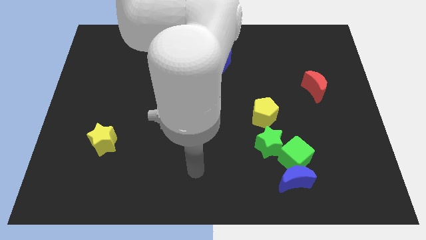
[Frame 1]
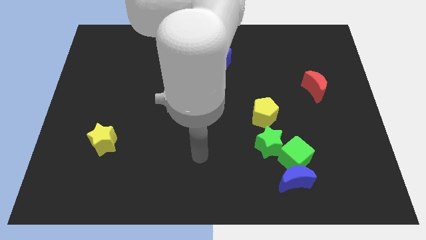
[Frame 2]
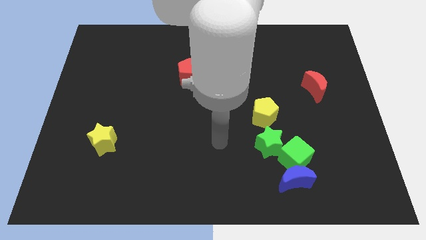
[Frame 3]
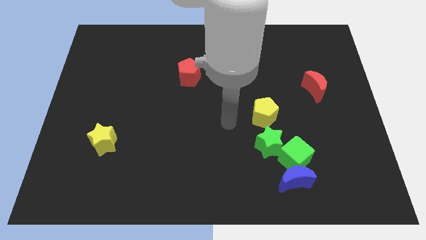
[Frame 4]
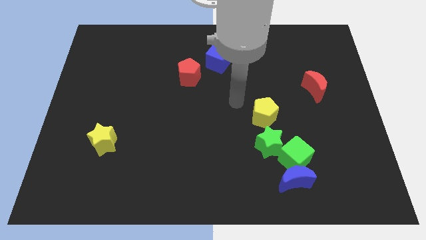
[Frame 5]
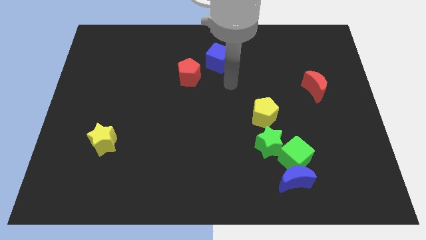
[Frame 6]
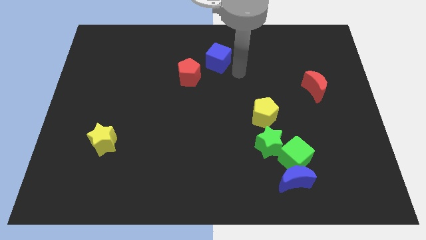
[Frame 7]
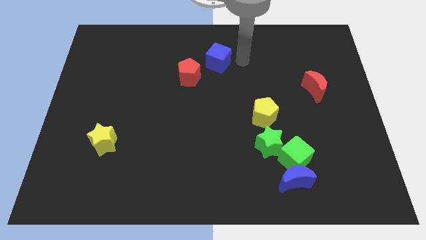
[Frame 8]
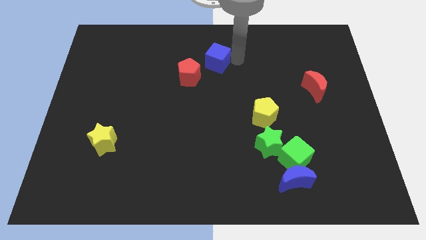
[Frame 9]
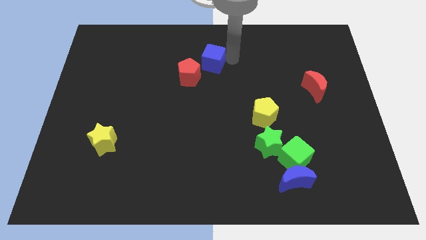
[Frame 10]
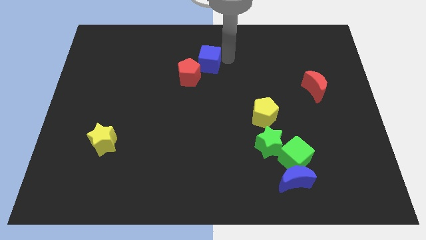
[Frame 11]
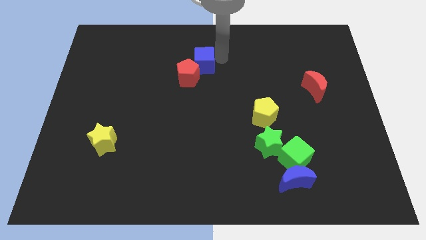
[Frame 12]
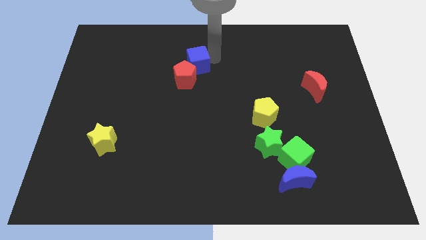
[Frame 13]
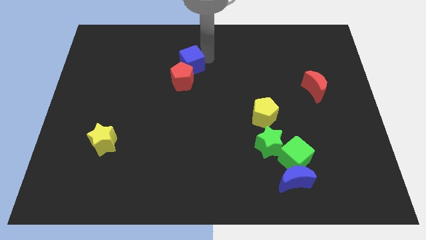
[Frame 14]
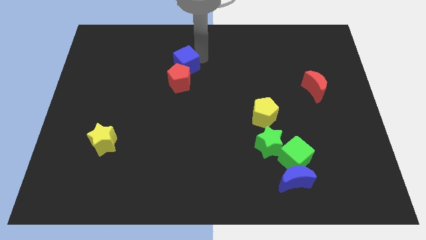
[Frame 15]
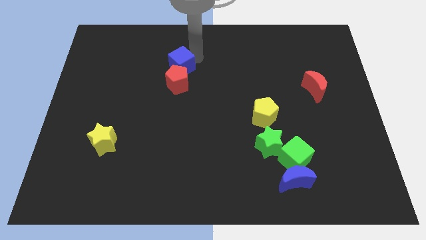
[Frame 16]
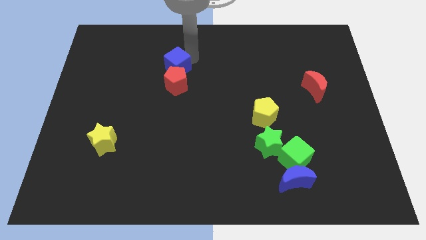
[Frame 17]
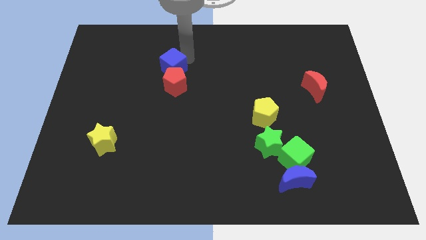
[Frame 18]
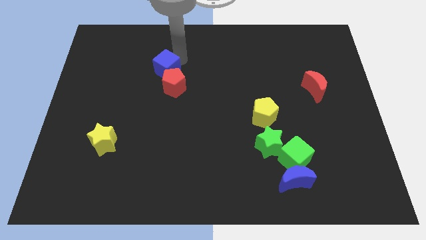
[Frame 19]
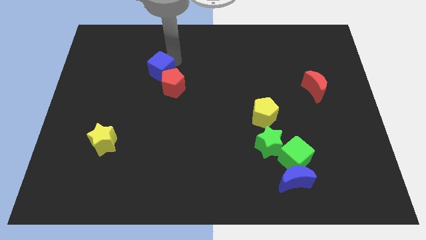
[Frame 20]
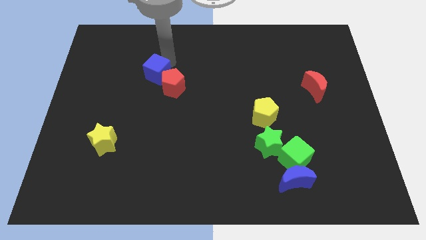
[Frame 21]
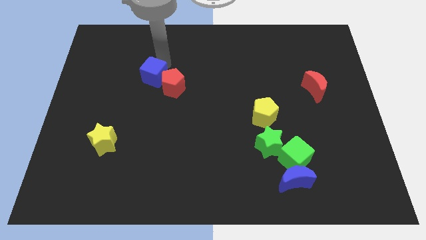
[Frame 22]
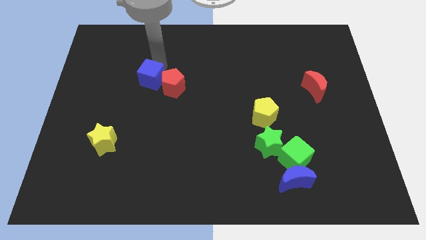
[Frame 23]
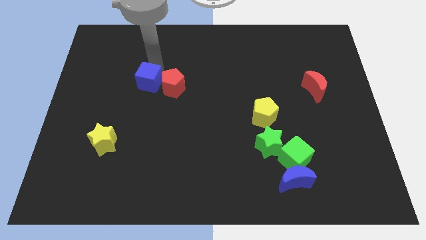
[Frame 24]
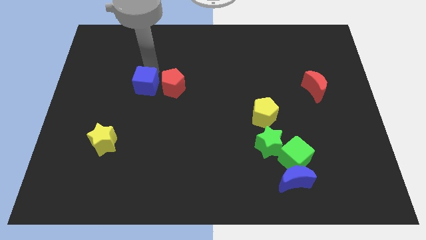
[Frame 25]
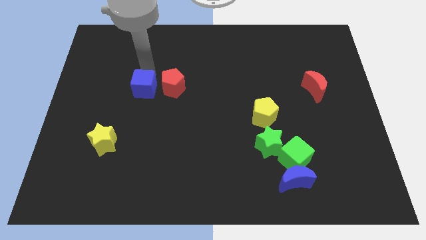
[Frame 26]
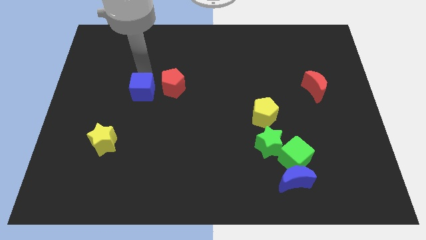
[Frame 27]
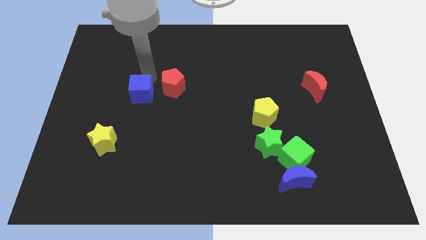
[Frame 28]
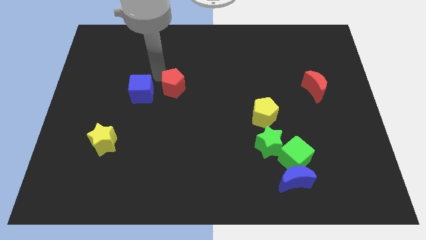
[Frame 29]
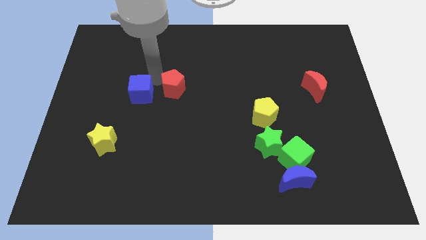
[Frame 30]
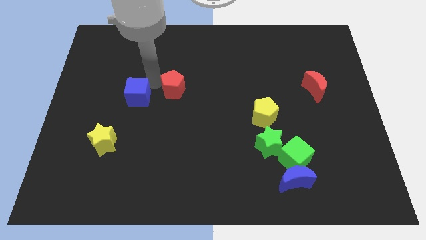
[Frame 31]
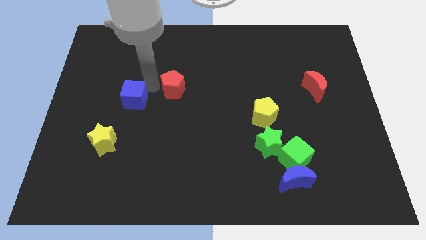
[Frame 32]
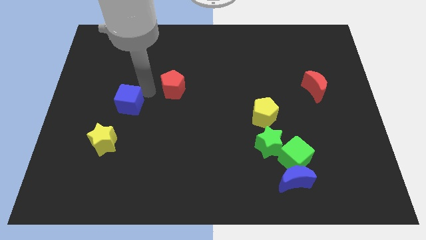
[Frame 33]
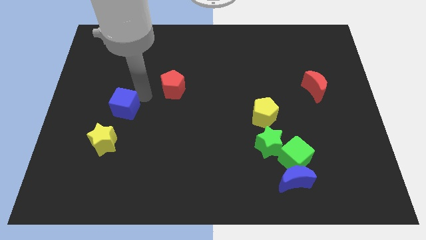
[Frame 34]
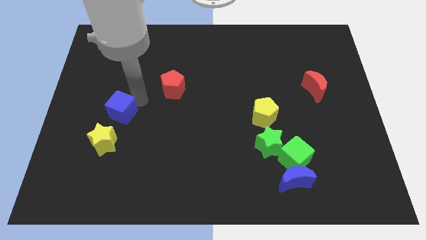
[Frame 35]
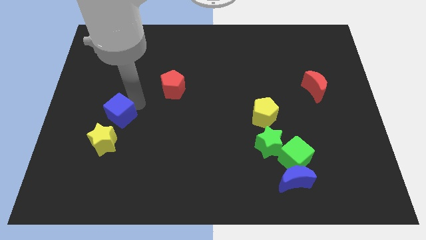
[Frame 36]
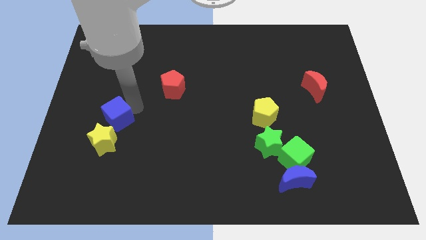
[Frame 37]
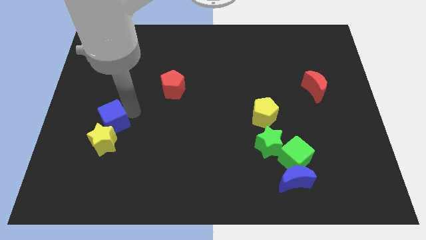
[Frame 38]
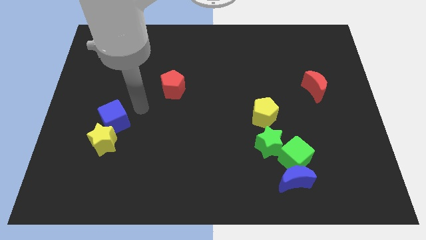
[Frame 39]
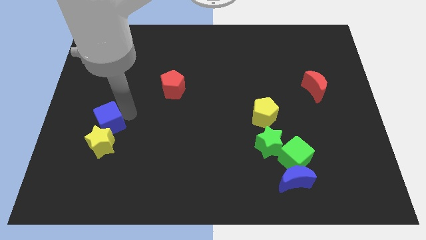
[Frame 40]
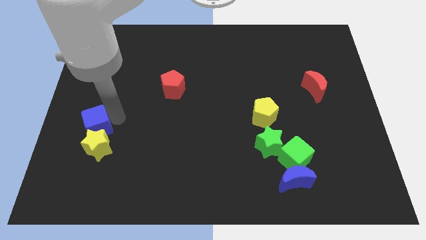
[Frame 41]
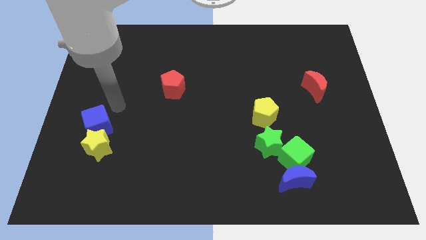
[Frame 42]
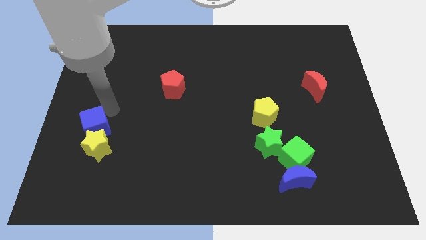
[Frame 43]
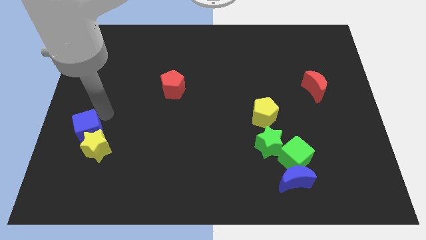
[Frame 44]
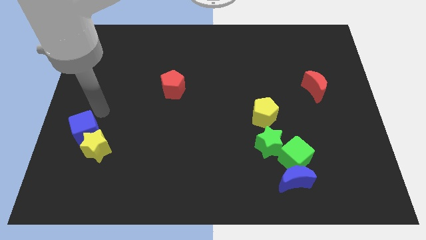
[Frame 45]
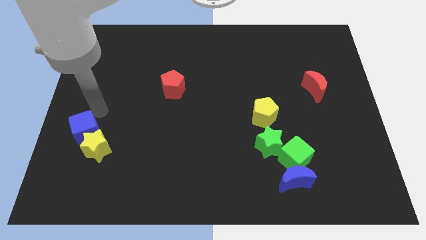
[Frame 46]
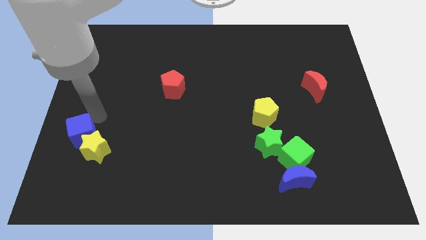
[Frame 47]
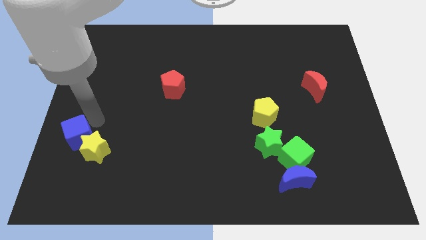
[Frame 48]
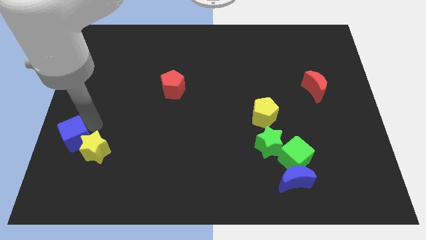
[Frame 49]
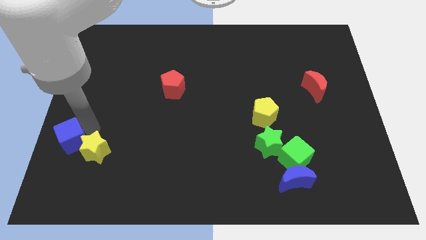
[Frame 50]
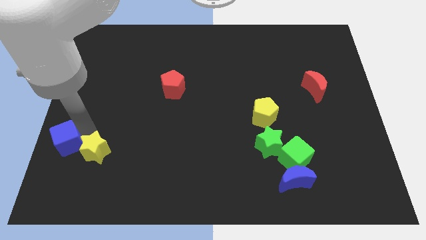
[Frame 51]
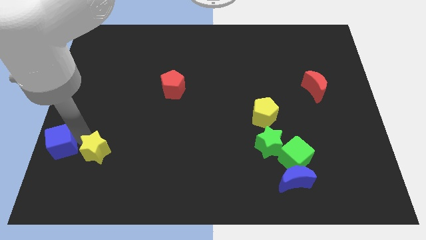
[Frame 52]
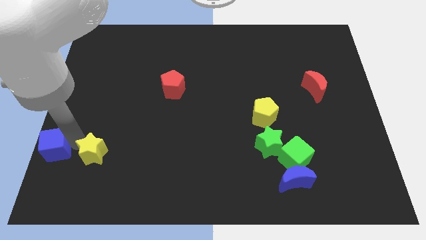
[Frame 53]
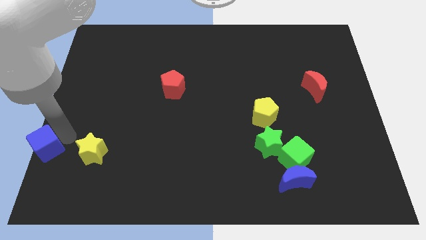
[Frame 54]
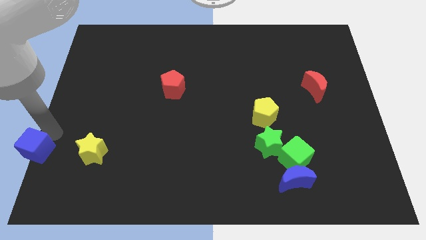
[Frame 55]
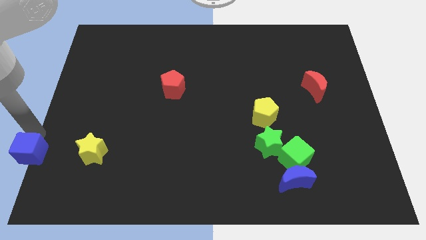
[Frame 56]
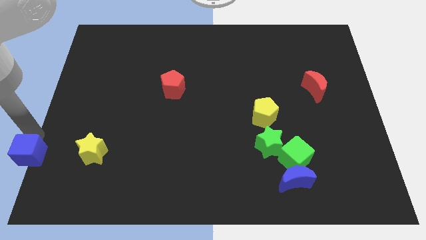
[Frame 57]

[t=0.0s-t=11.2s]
put the blue cube to the bottom left of the board

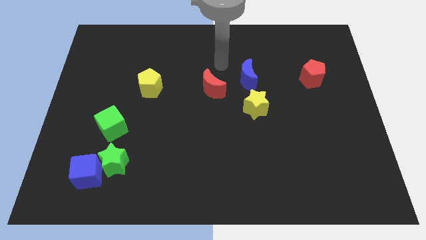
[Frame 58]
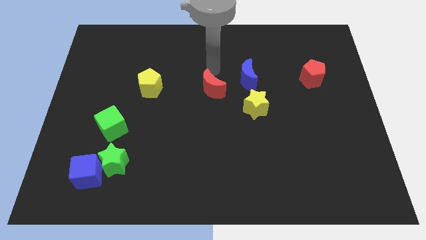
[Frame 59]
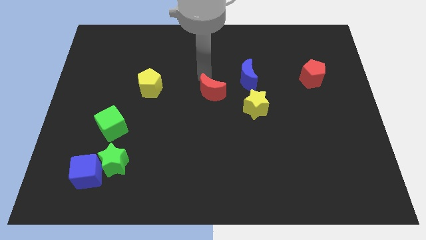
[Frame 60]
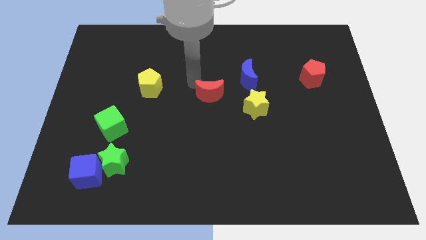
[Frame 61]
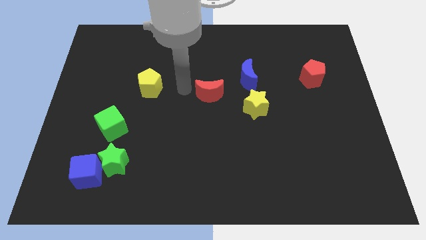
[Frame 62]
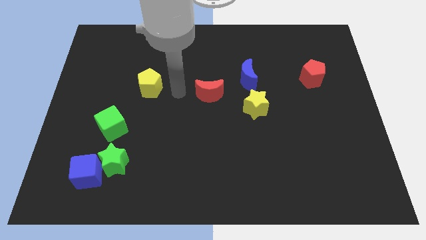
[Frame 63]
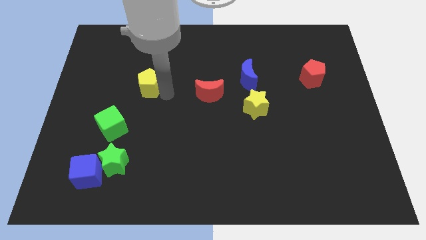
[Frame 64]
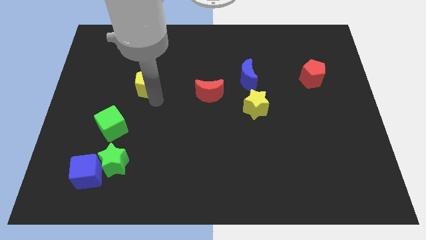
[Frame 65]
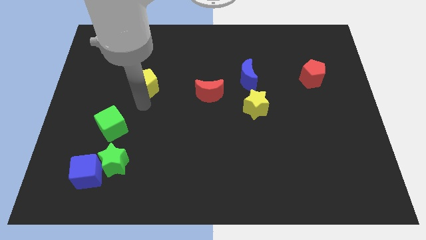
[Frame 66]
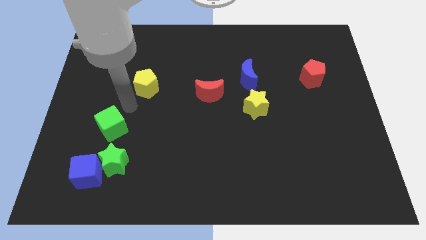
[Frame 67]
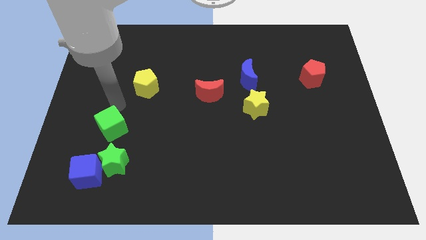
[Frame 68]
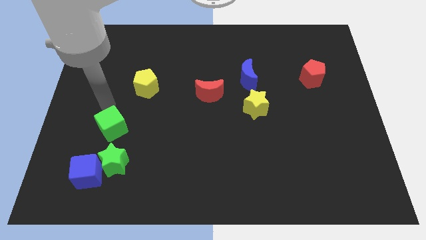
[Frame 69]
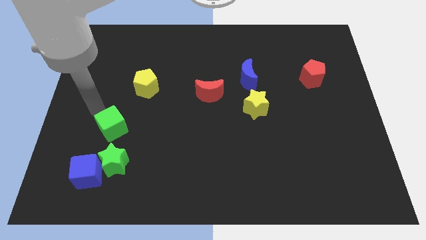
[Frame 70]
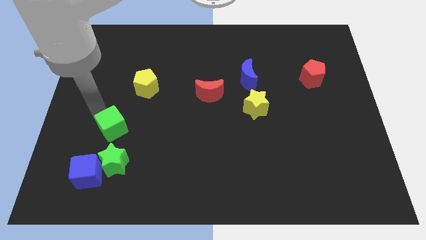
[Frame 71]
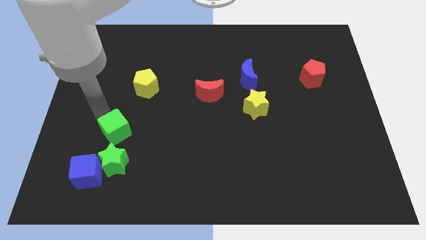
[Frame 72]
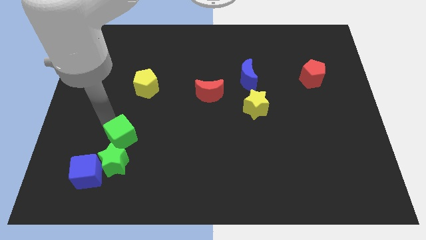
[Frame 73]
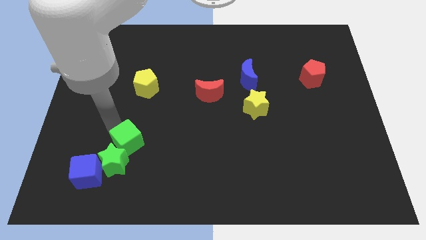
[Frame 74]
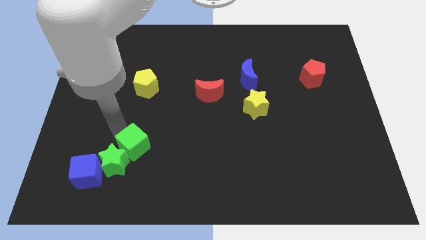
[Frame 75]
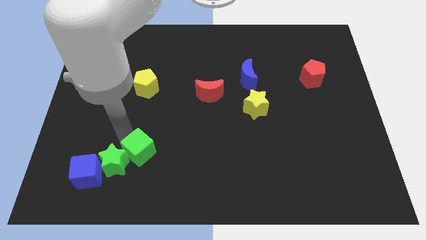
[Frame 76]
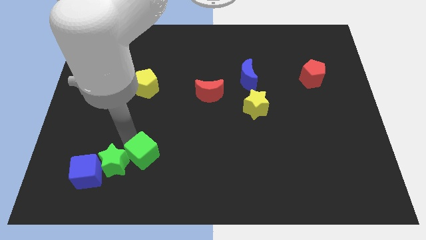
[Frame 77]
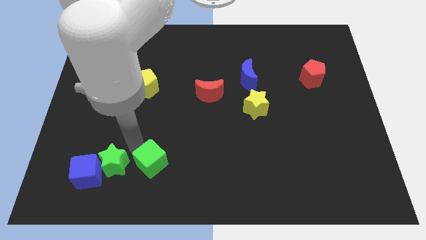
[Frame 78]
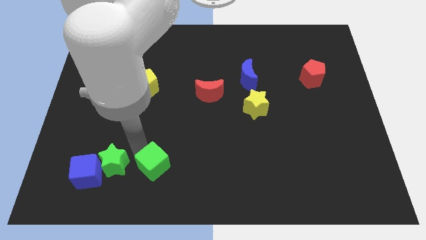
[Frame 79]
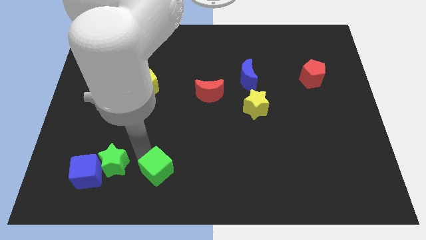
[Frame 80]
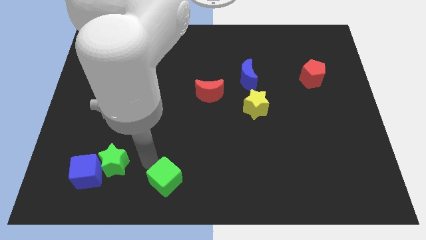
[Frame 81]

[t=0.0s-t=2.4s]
slide the green cube to the bottom
